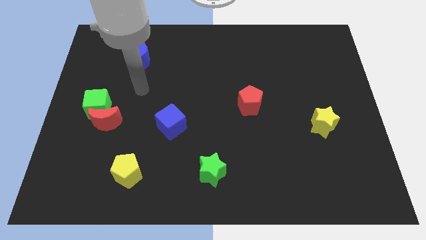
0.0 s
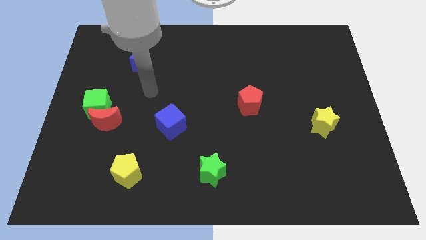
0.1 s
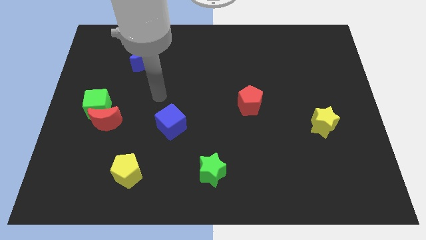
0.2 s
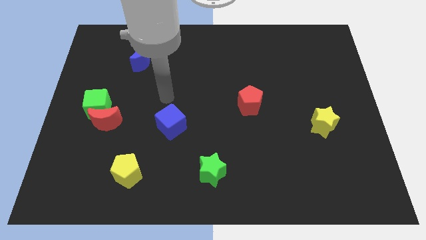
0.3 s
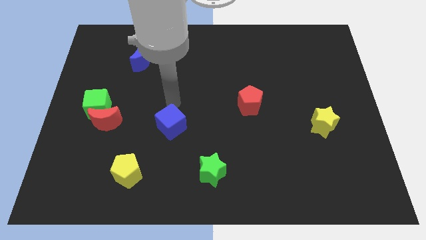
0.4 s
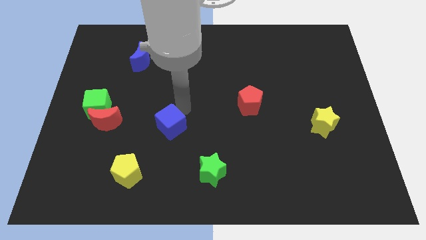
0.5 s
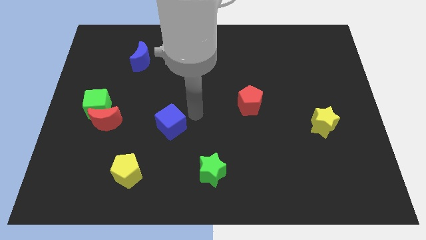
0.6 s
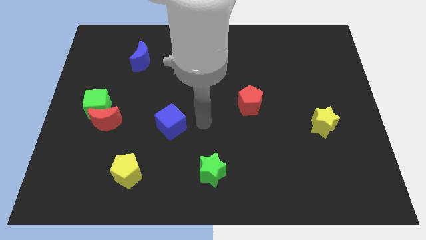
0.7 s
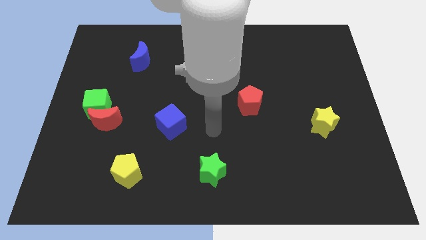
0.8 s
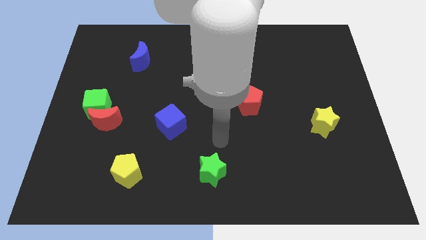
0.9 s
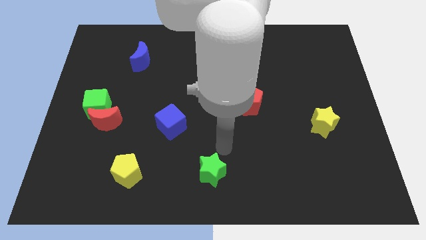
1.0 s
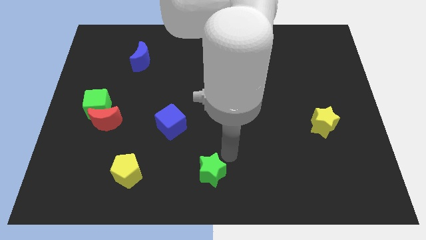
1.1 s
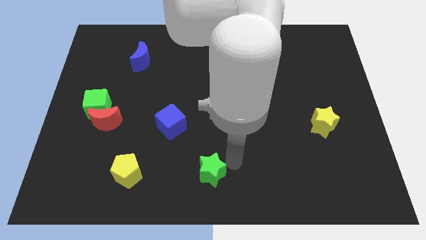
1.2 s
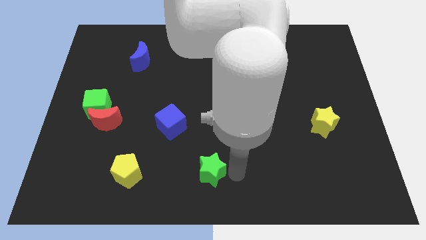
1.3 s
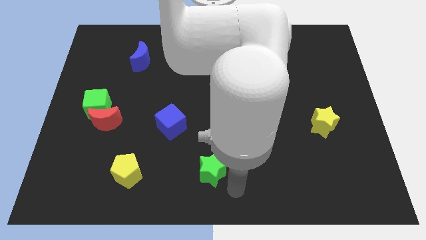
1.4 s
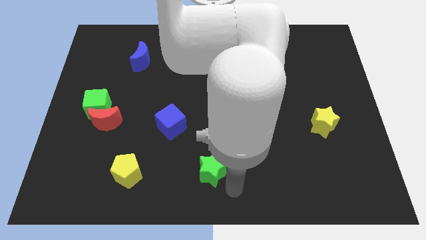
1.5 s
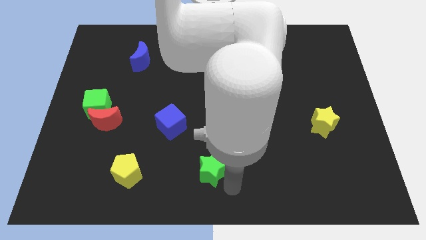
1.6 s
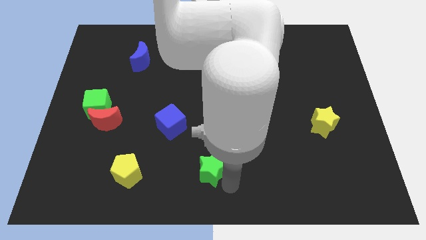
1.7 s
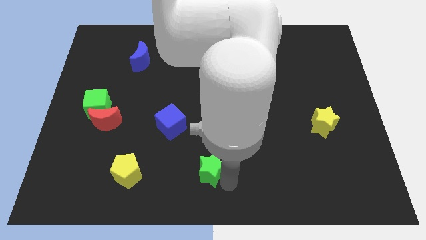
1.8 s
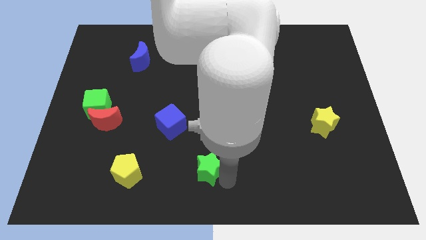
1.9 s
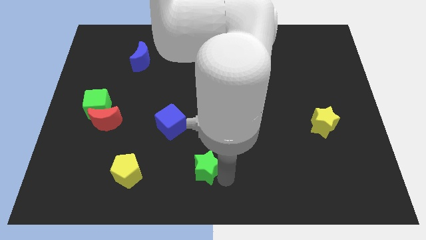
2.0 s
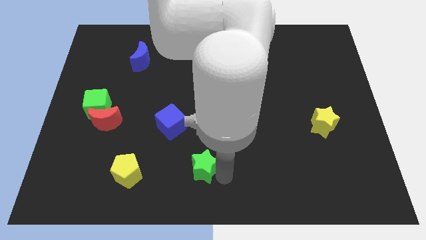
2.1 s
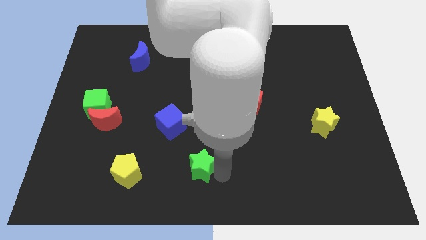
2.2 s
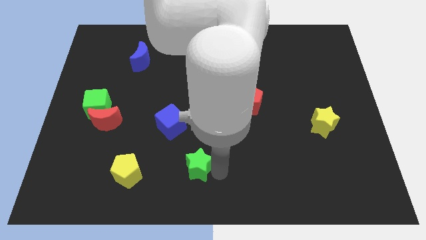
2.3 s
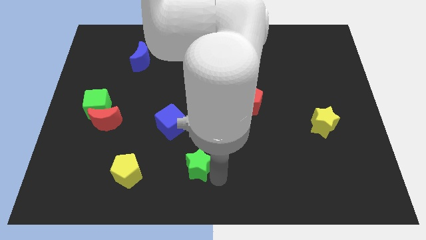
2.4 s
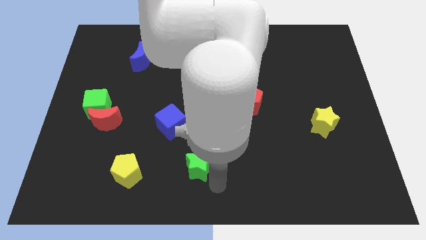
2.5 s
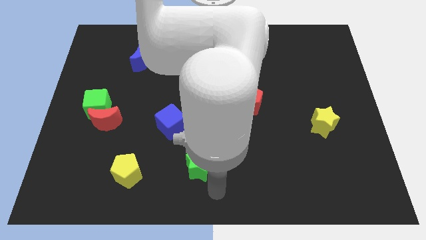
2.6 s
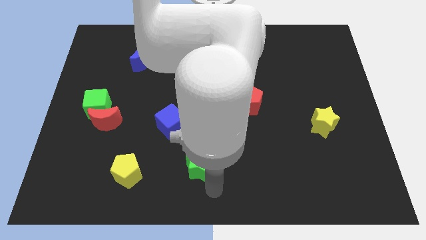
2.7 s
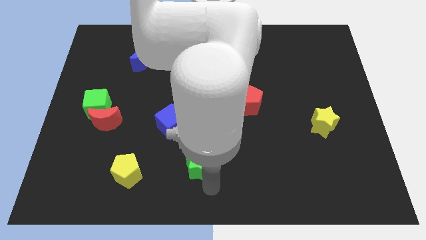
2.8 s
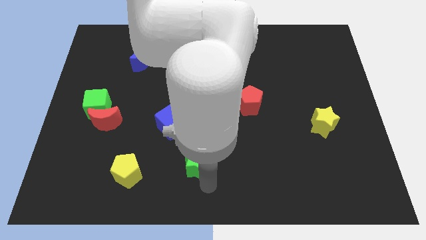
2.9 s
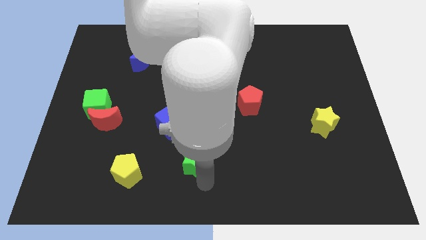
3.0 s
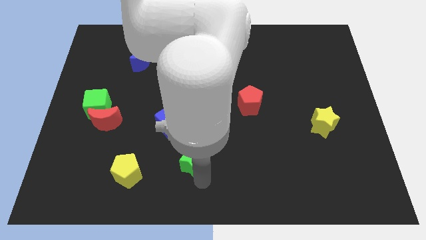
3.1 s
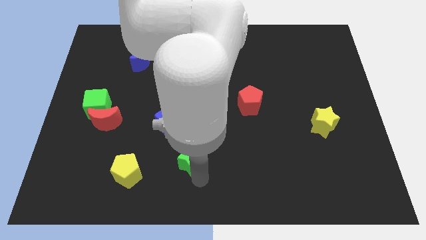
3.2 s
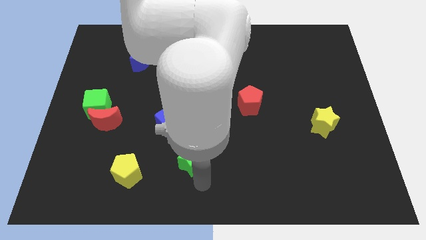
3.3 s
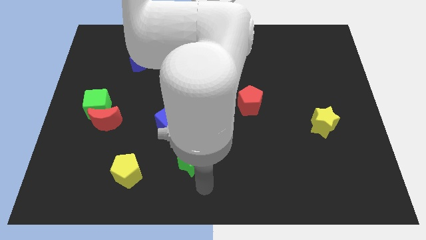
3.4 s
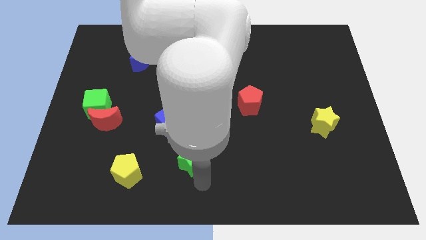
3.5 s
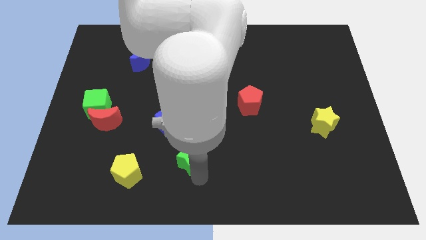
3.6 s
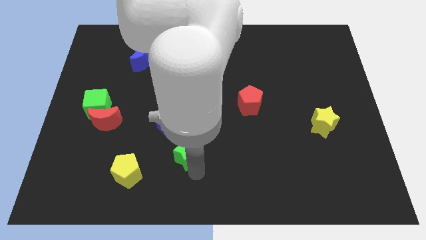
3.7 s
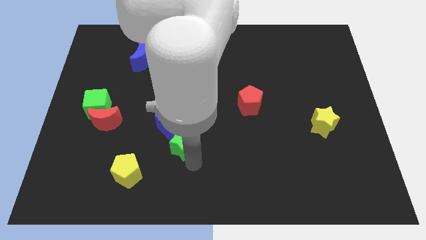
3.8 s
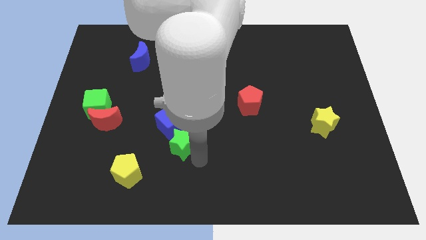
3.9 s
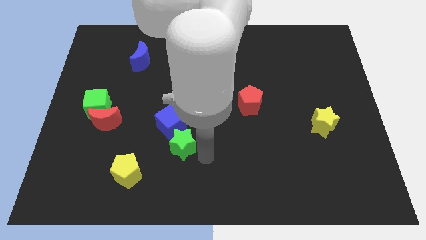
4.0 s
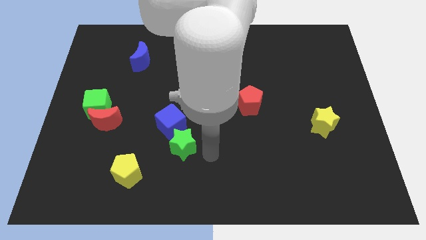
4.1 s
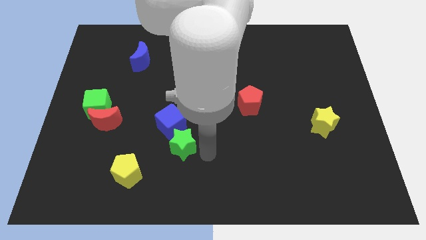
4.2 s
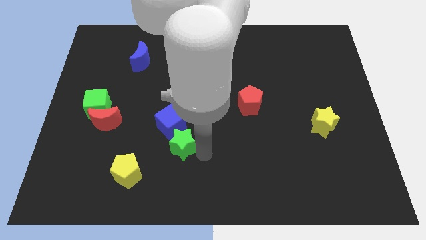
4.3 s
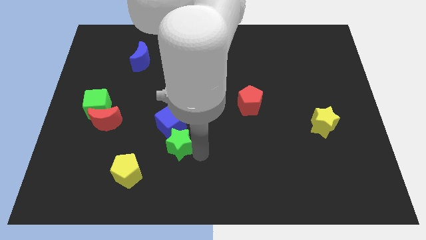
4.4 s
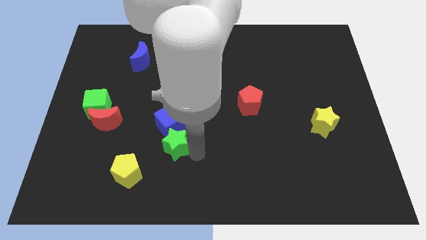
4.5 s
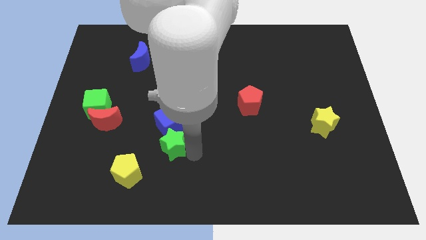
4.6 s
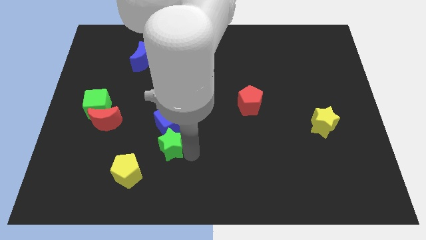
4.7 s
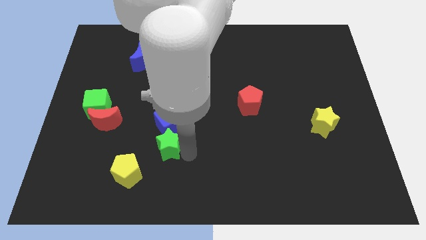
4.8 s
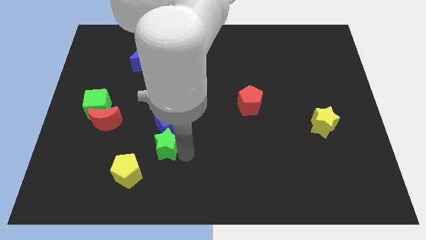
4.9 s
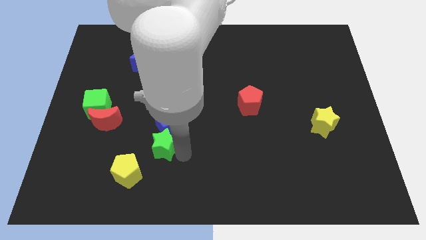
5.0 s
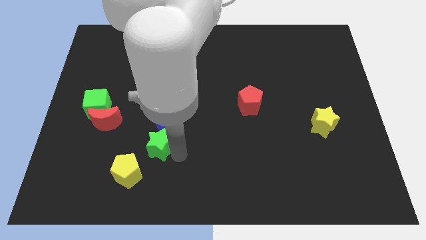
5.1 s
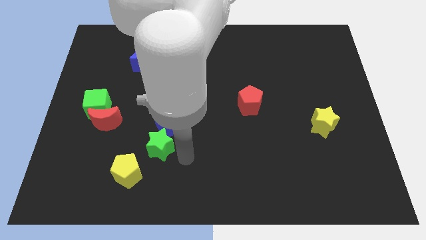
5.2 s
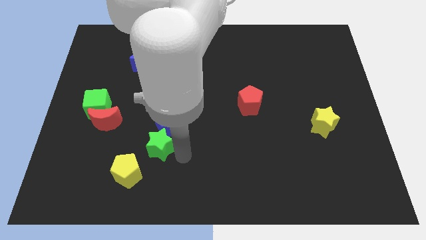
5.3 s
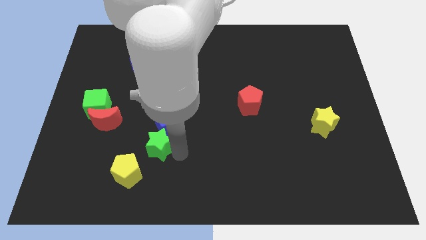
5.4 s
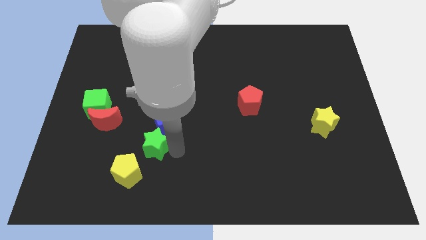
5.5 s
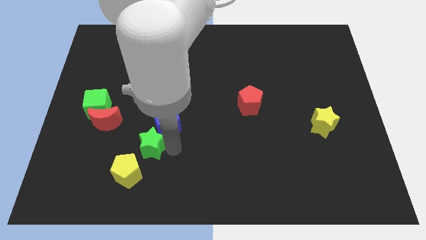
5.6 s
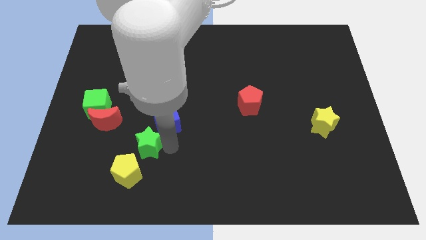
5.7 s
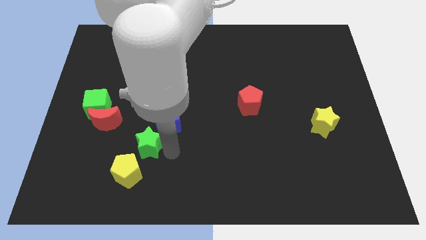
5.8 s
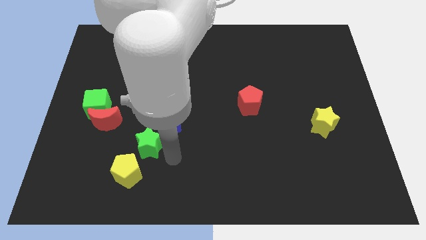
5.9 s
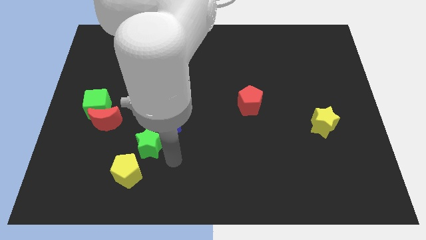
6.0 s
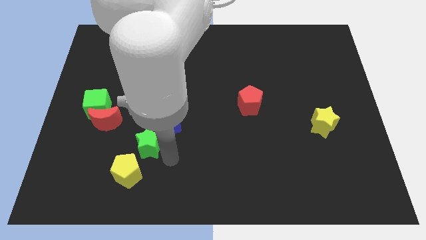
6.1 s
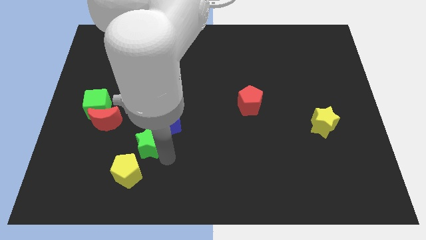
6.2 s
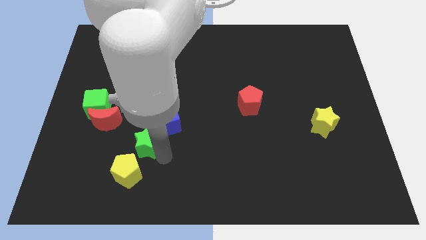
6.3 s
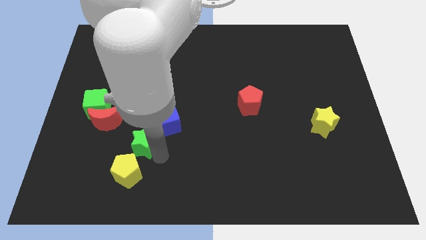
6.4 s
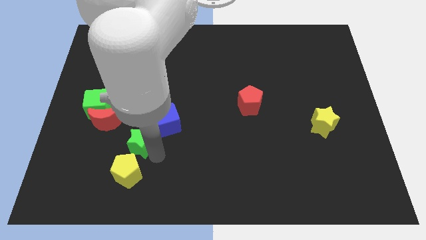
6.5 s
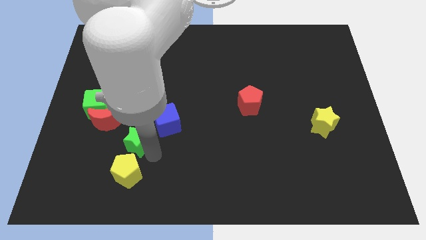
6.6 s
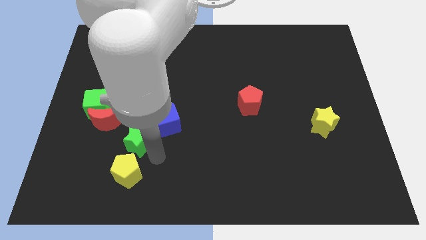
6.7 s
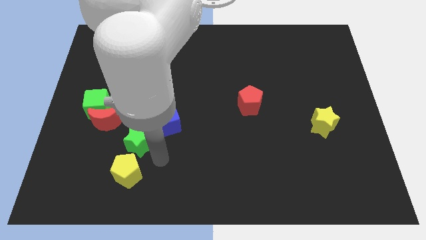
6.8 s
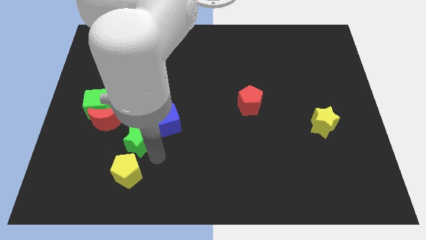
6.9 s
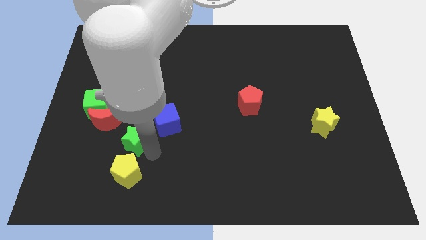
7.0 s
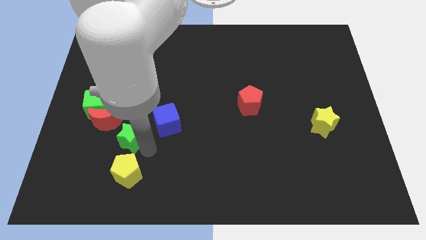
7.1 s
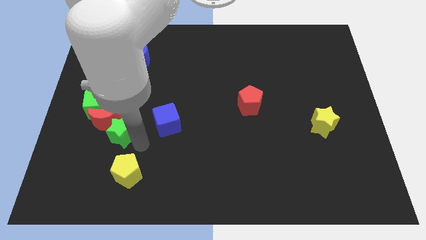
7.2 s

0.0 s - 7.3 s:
move the green star to the red moon

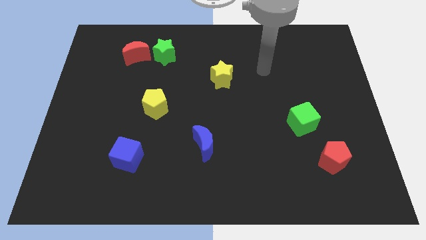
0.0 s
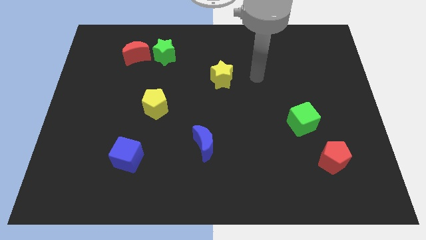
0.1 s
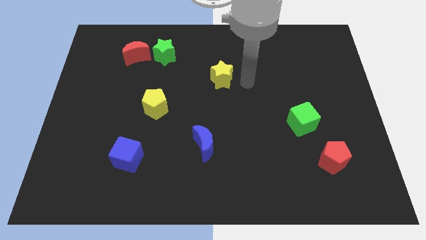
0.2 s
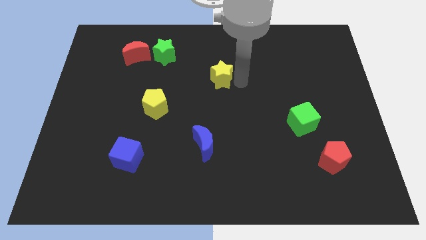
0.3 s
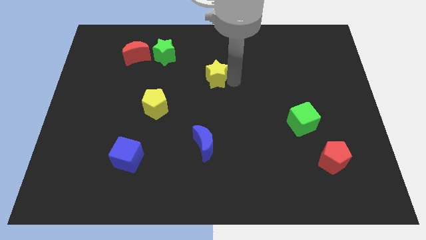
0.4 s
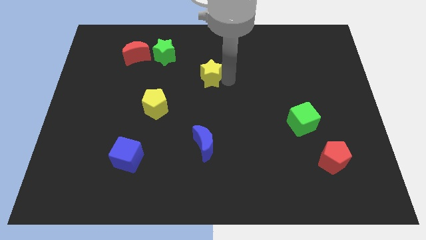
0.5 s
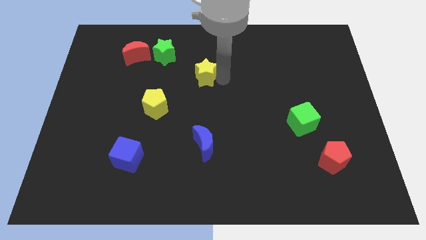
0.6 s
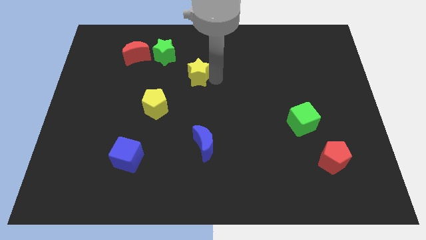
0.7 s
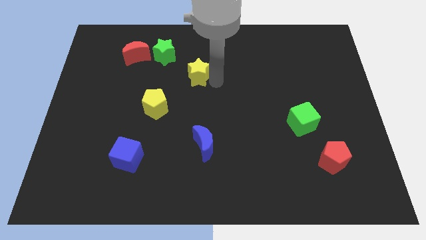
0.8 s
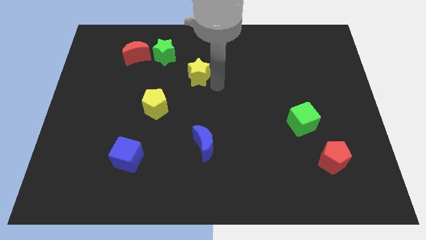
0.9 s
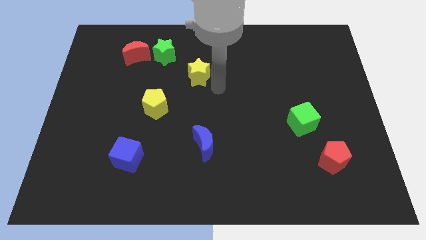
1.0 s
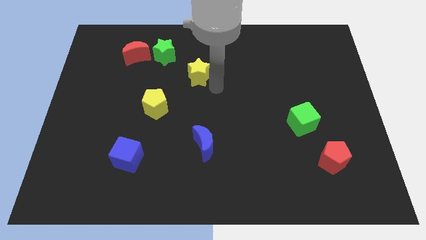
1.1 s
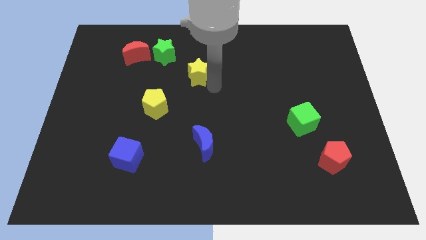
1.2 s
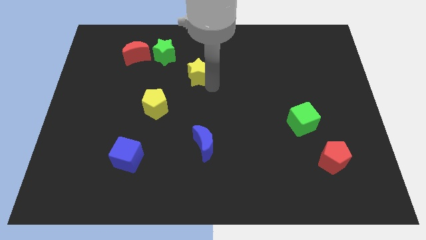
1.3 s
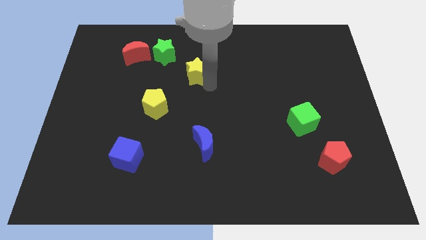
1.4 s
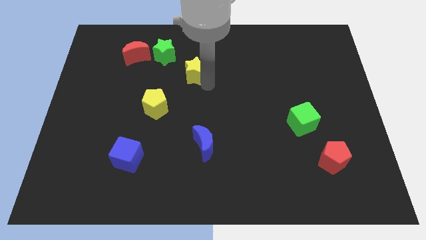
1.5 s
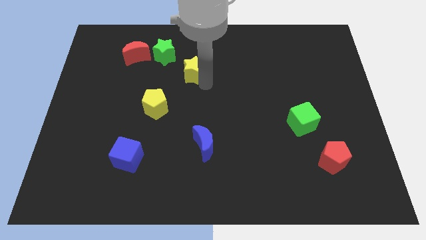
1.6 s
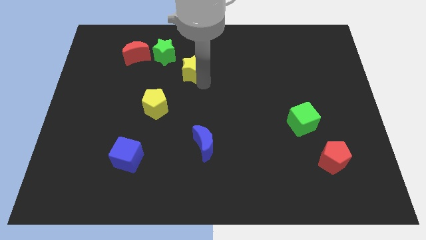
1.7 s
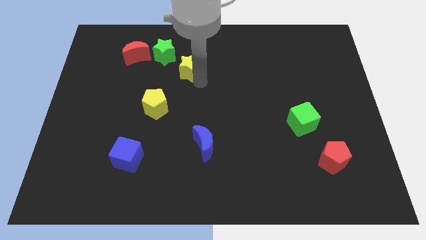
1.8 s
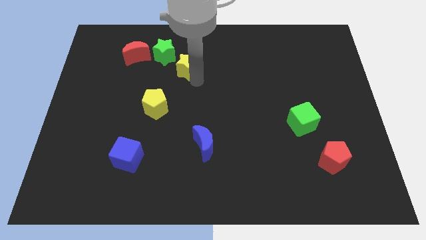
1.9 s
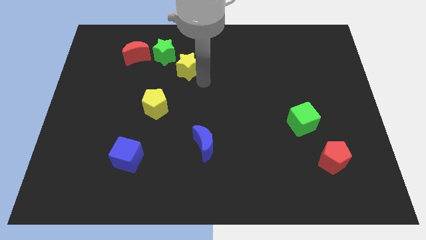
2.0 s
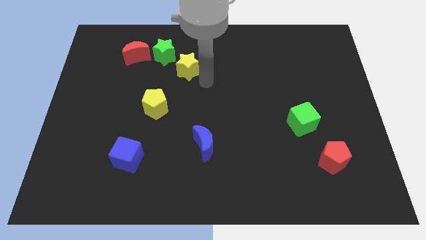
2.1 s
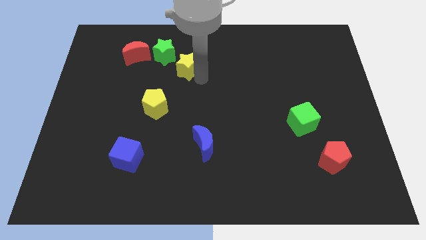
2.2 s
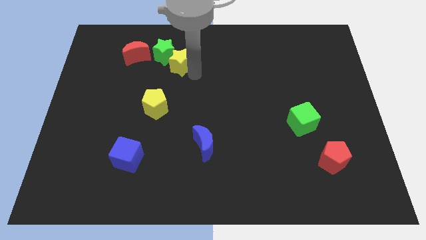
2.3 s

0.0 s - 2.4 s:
push the yellow star towards the green star
